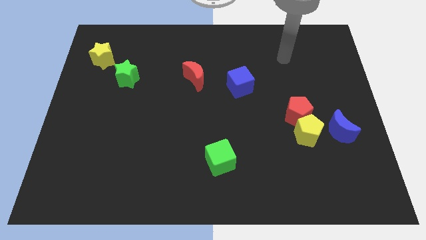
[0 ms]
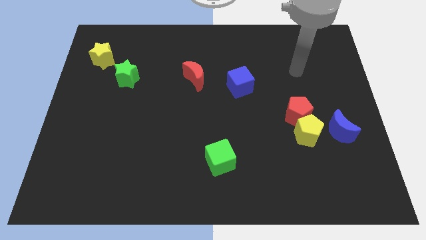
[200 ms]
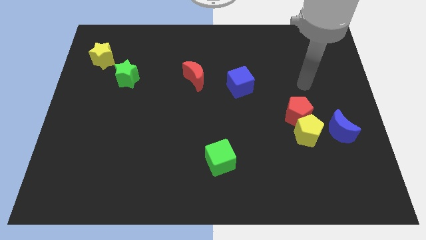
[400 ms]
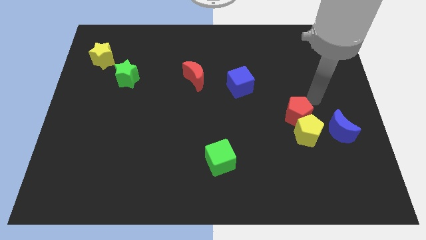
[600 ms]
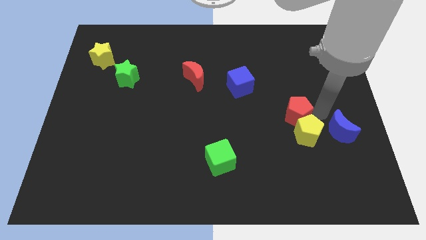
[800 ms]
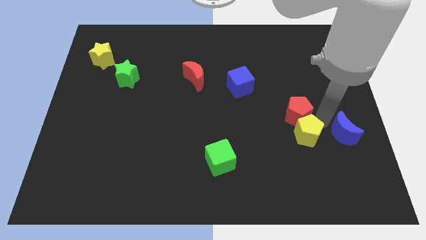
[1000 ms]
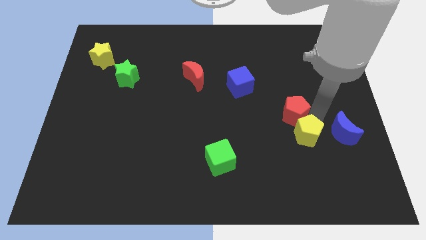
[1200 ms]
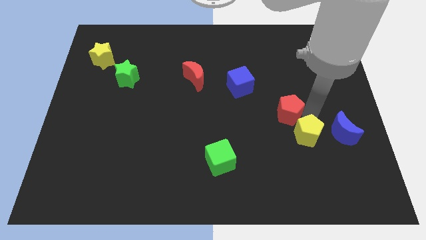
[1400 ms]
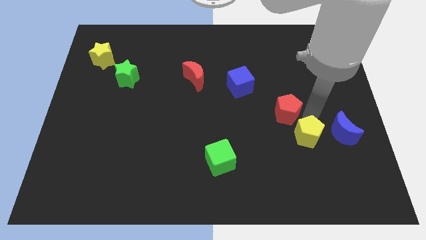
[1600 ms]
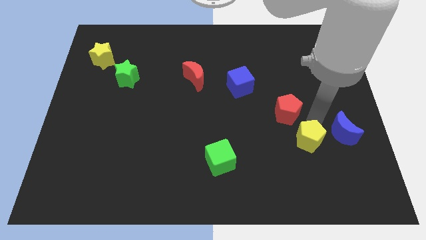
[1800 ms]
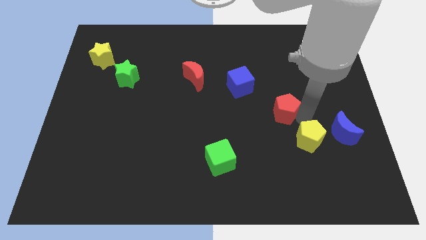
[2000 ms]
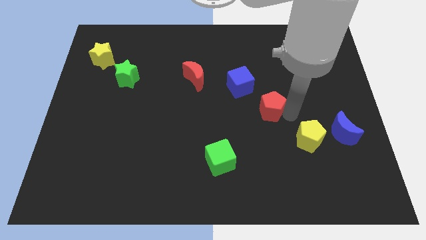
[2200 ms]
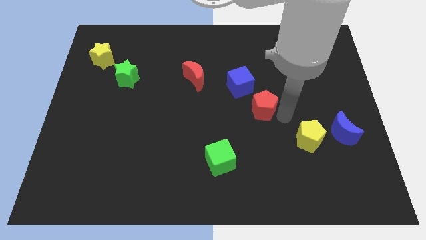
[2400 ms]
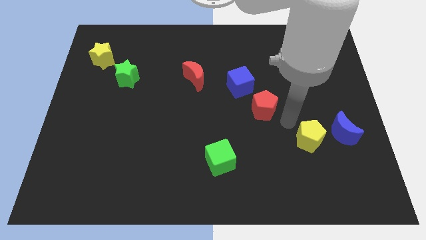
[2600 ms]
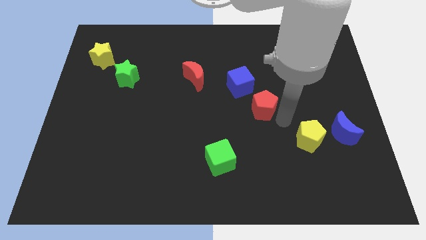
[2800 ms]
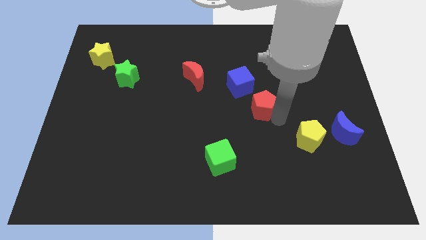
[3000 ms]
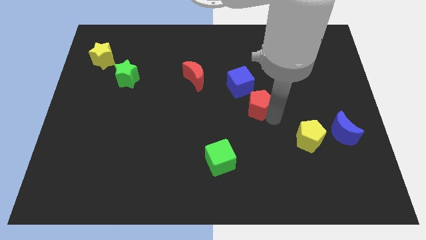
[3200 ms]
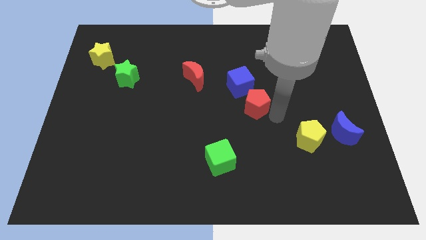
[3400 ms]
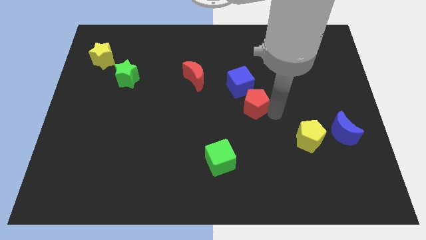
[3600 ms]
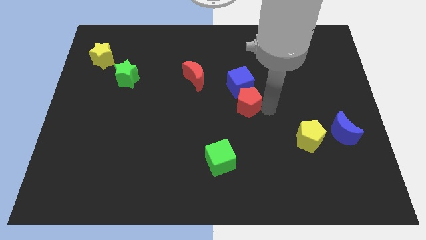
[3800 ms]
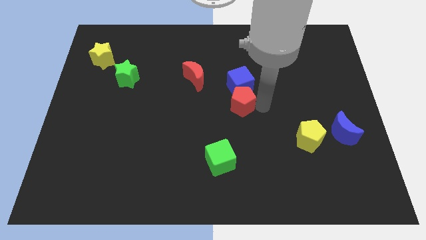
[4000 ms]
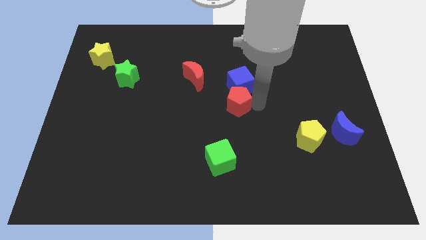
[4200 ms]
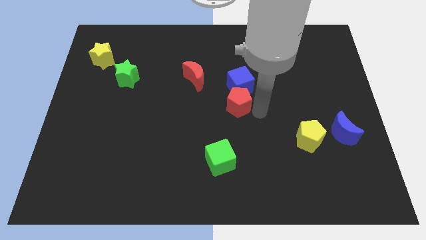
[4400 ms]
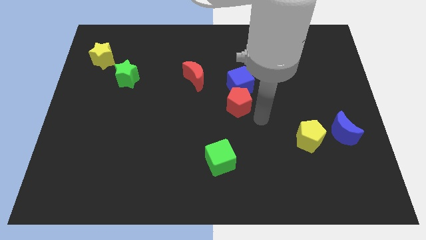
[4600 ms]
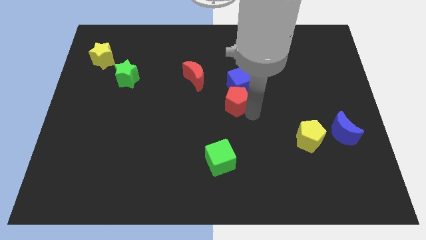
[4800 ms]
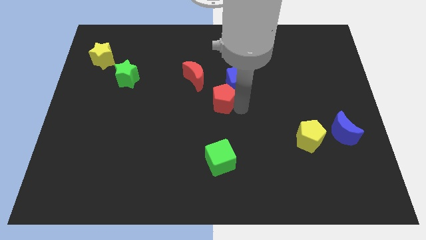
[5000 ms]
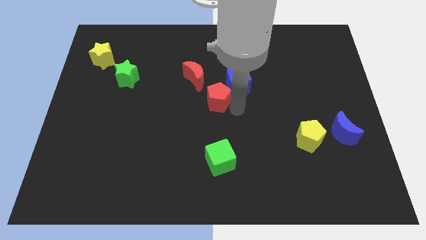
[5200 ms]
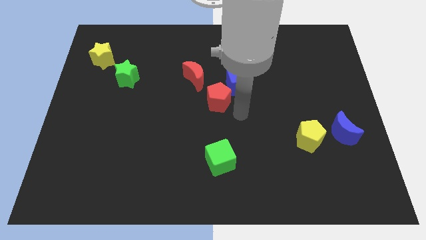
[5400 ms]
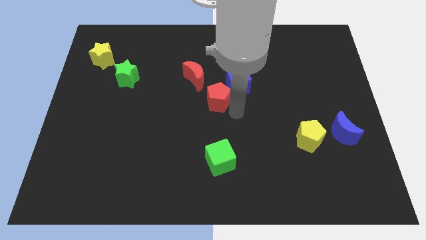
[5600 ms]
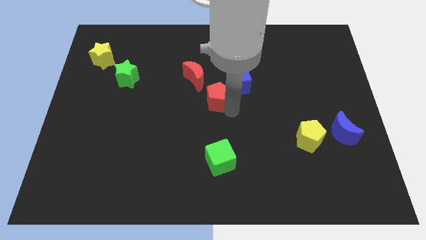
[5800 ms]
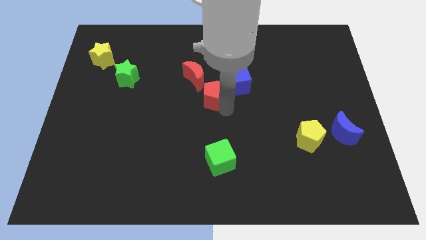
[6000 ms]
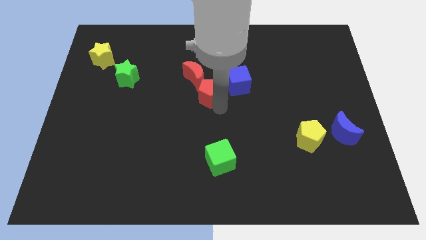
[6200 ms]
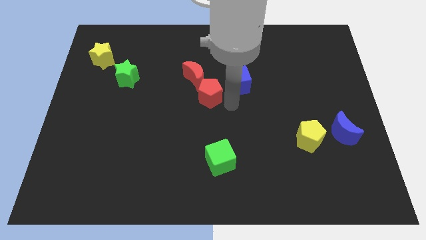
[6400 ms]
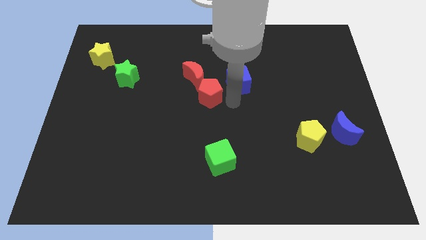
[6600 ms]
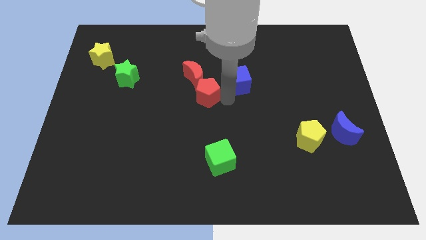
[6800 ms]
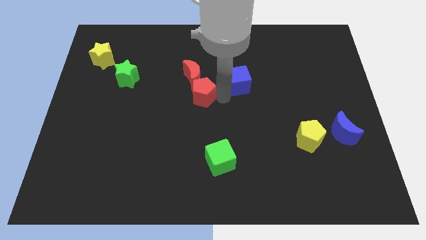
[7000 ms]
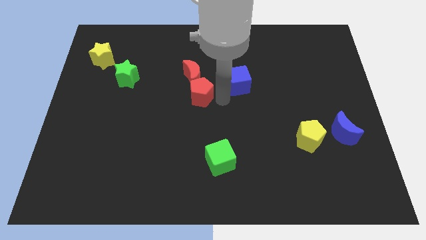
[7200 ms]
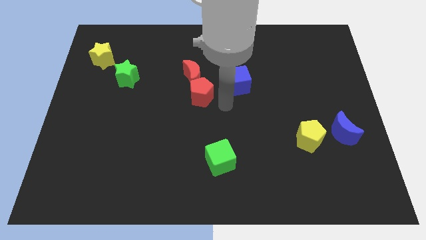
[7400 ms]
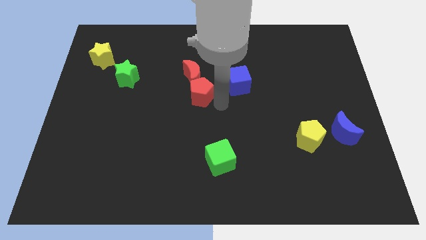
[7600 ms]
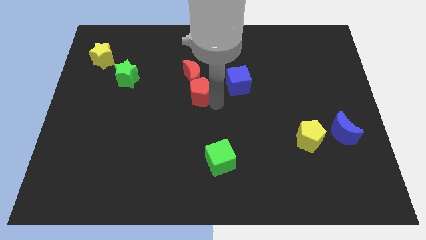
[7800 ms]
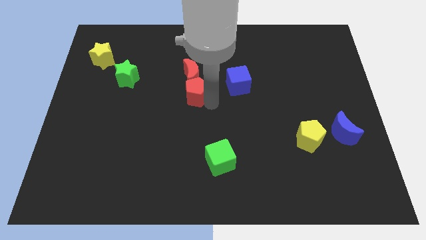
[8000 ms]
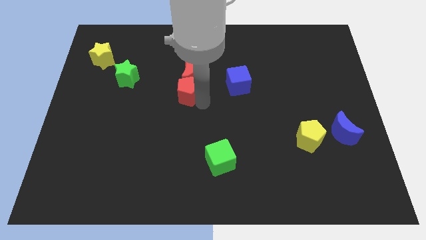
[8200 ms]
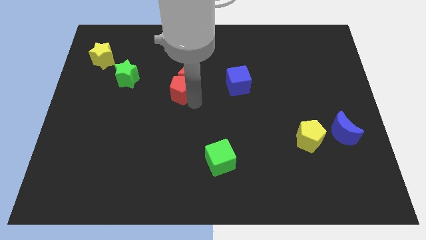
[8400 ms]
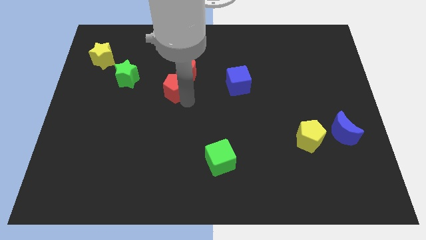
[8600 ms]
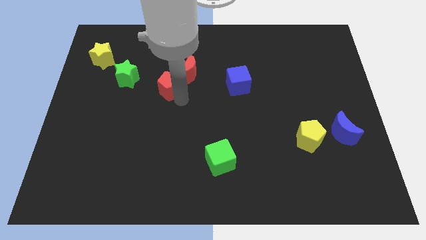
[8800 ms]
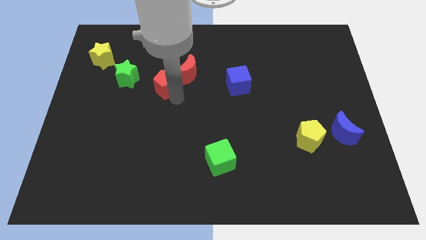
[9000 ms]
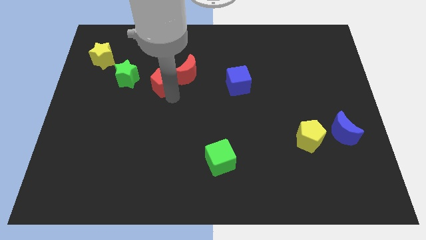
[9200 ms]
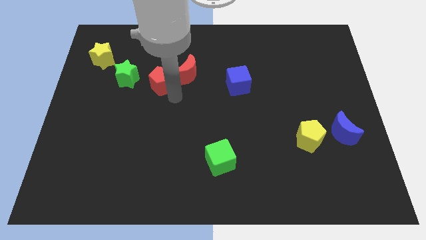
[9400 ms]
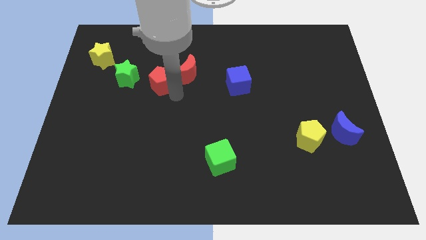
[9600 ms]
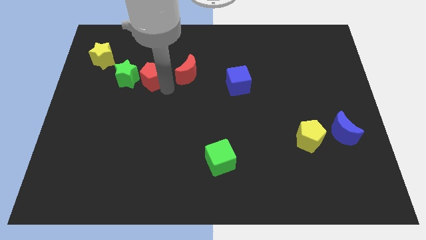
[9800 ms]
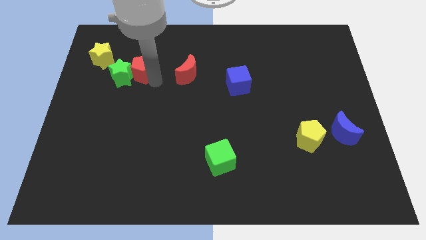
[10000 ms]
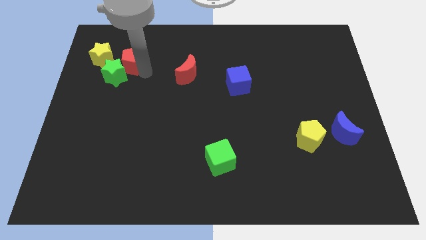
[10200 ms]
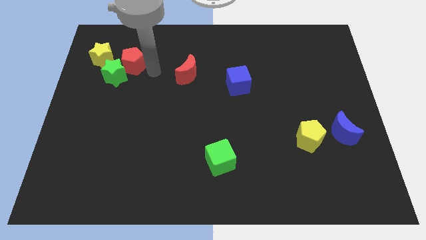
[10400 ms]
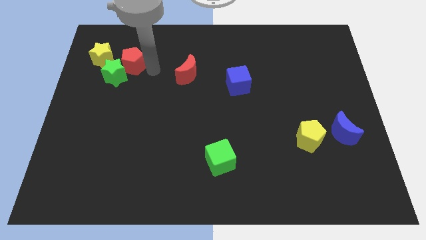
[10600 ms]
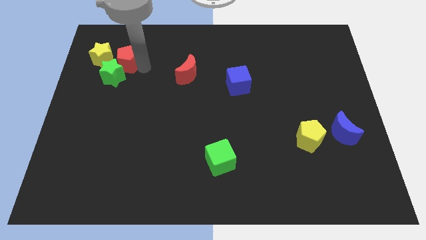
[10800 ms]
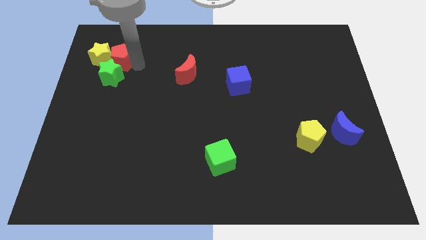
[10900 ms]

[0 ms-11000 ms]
push the red pentagon close to the yellow star

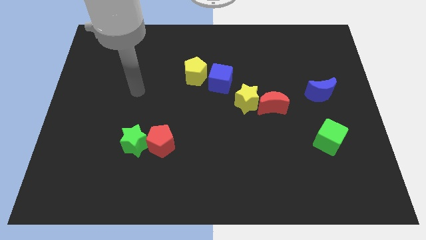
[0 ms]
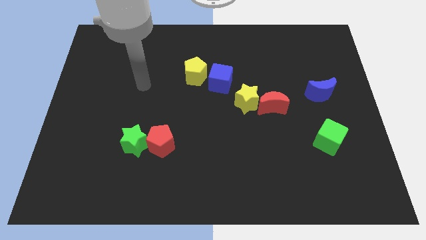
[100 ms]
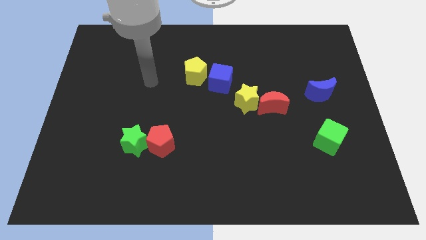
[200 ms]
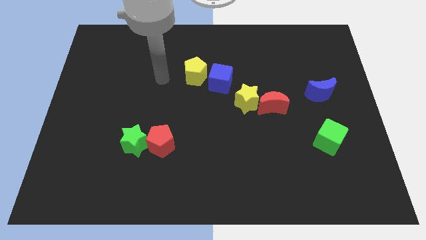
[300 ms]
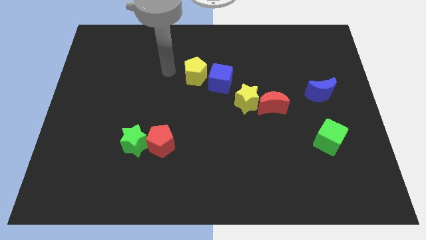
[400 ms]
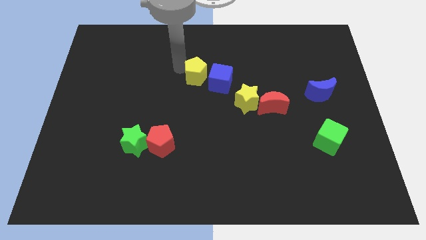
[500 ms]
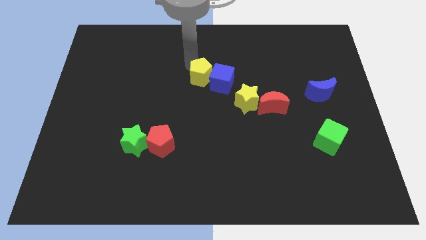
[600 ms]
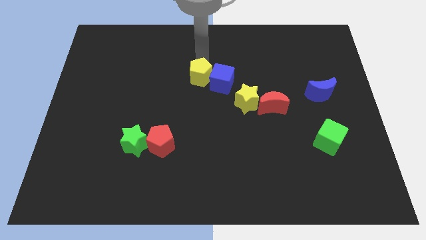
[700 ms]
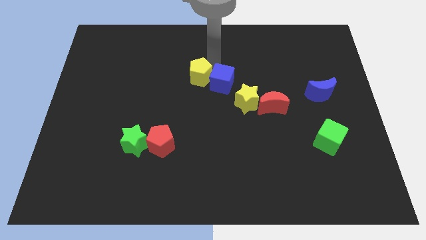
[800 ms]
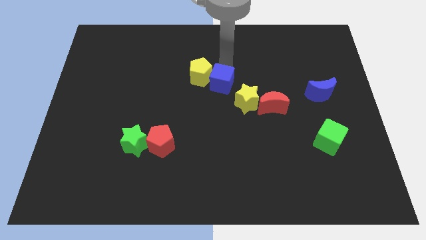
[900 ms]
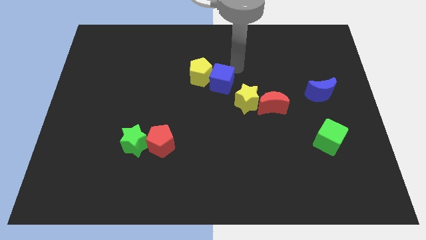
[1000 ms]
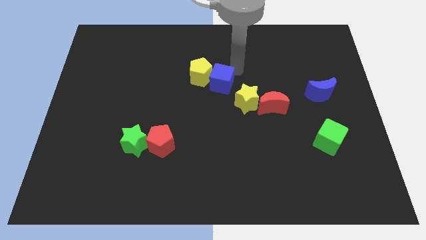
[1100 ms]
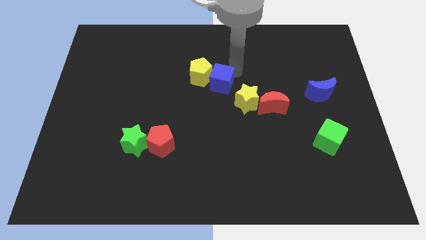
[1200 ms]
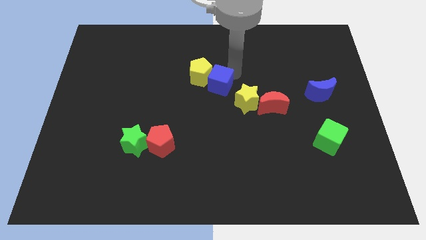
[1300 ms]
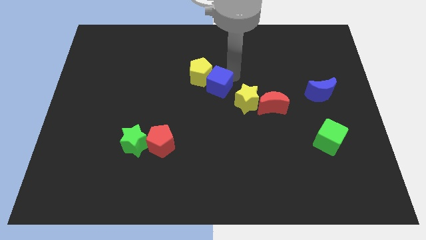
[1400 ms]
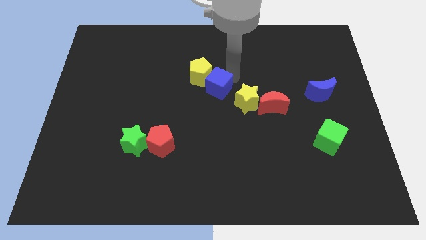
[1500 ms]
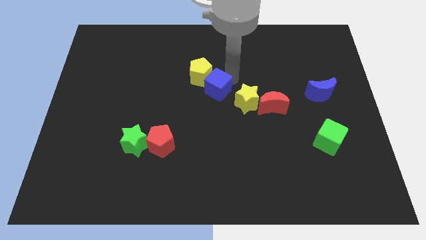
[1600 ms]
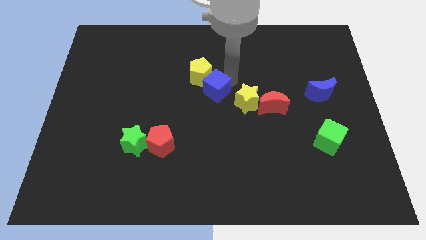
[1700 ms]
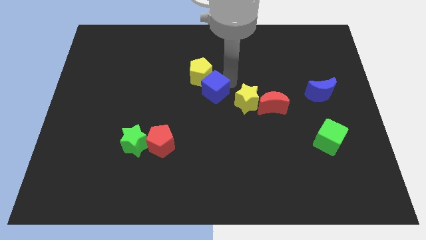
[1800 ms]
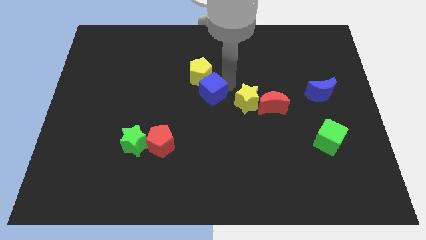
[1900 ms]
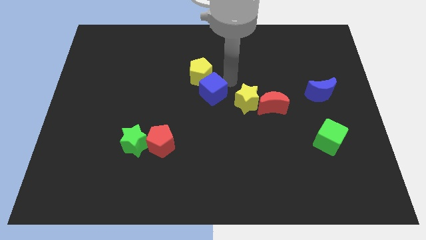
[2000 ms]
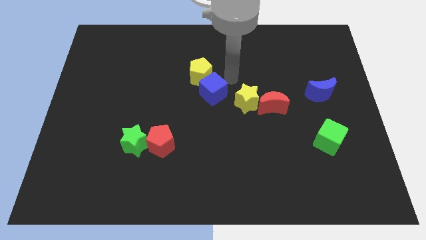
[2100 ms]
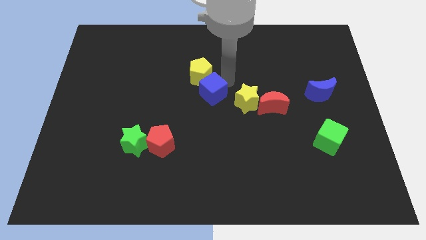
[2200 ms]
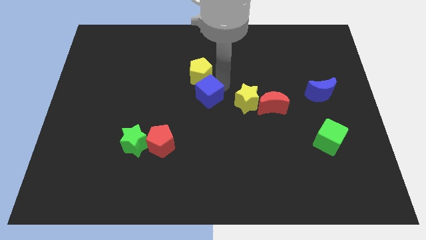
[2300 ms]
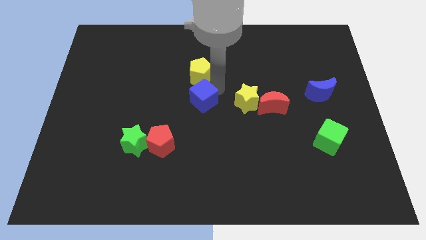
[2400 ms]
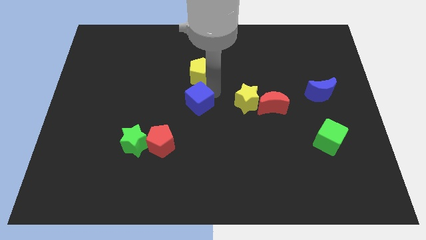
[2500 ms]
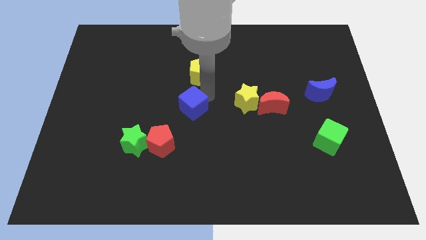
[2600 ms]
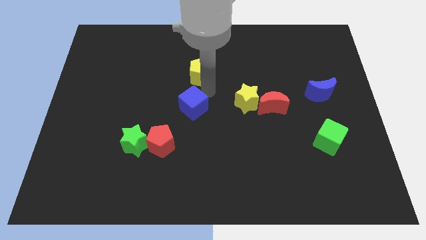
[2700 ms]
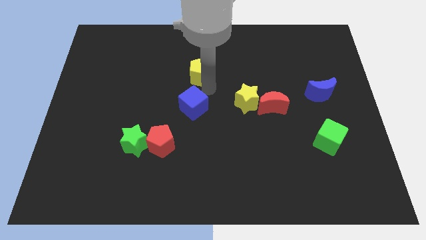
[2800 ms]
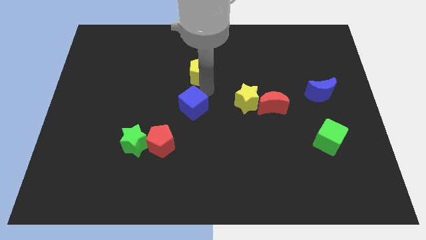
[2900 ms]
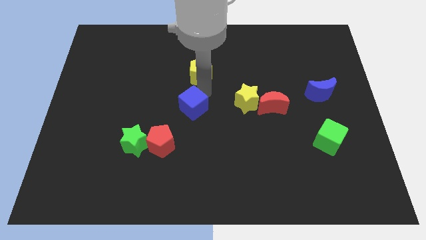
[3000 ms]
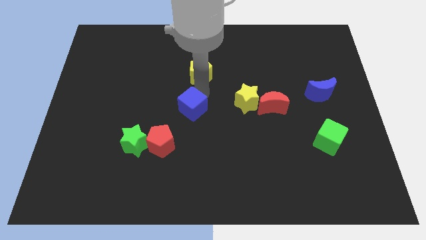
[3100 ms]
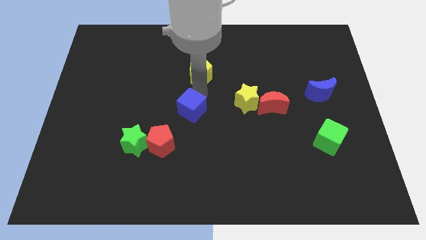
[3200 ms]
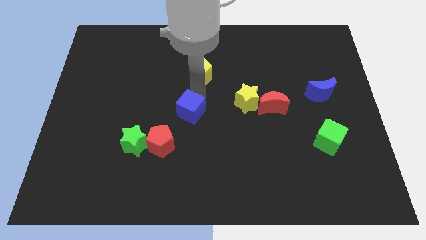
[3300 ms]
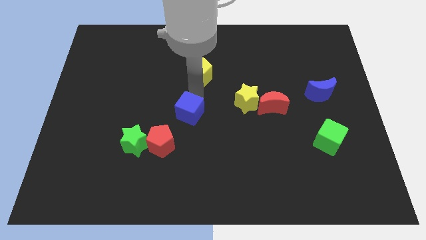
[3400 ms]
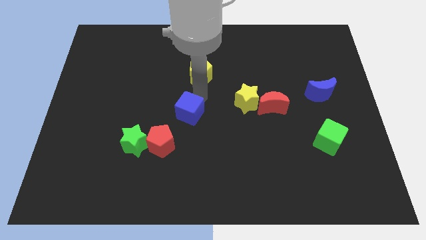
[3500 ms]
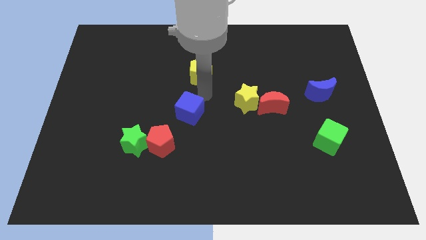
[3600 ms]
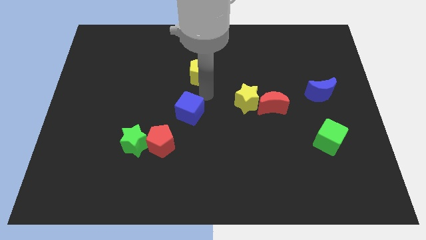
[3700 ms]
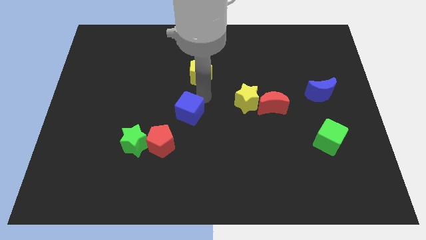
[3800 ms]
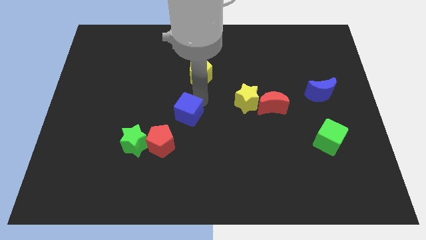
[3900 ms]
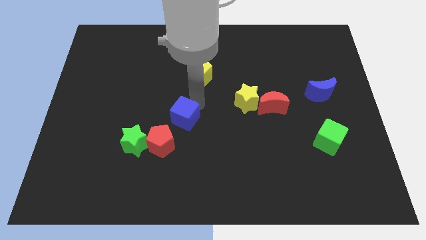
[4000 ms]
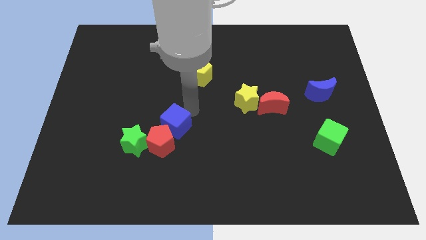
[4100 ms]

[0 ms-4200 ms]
move the blue cube to the red pentagon
